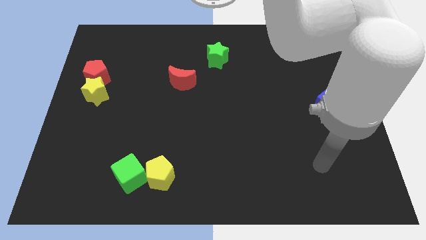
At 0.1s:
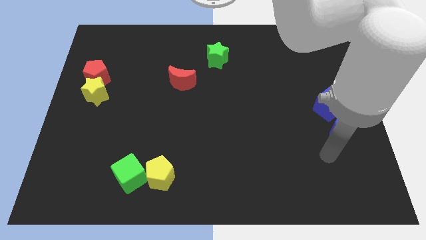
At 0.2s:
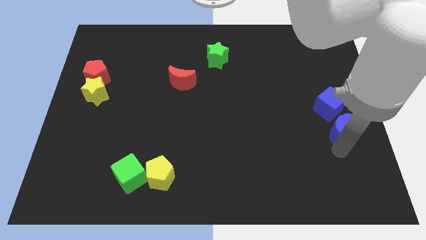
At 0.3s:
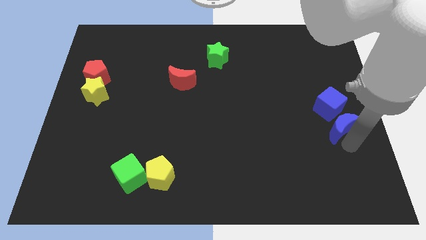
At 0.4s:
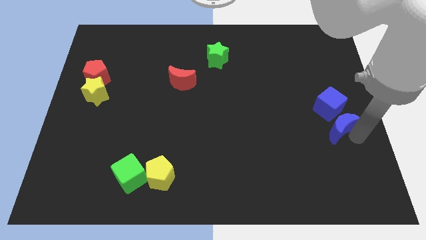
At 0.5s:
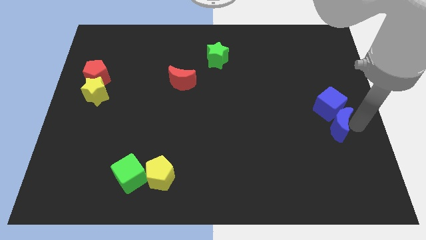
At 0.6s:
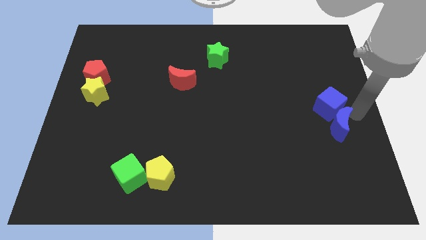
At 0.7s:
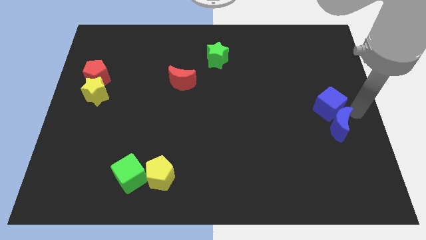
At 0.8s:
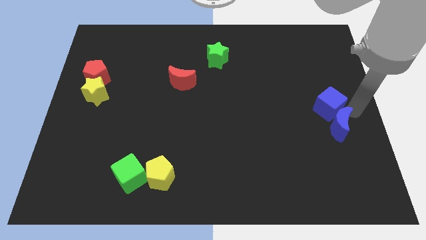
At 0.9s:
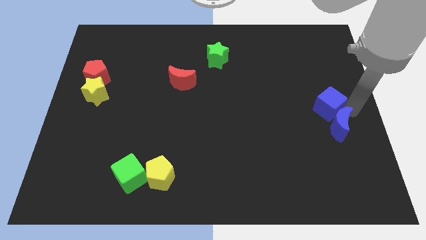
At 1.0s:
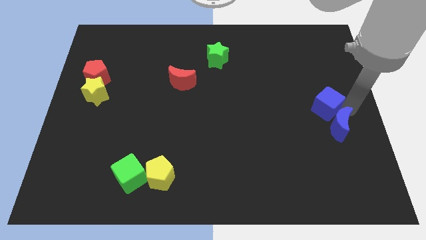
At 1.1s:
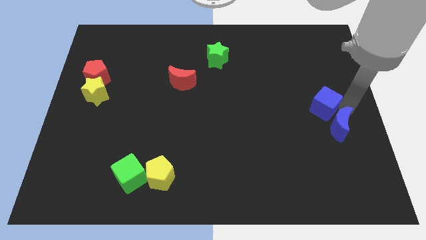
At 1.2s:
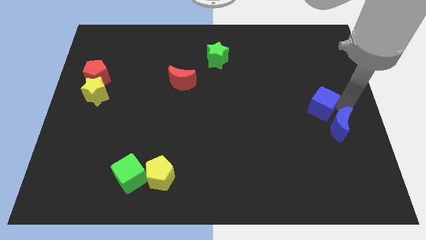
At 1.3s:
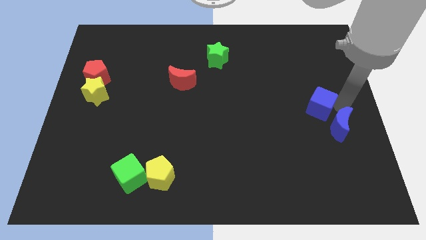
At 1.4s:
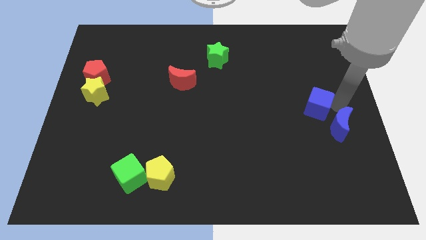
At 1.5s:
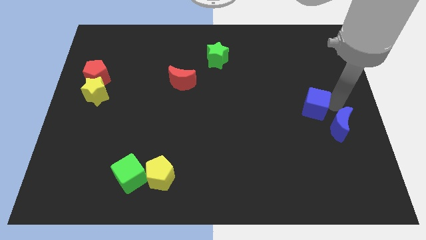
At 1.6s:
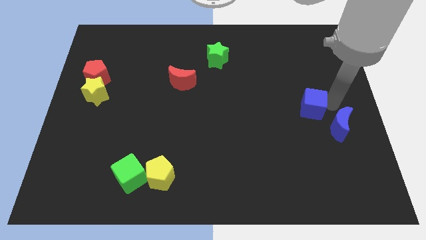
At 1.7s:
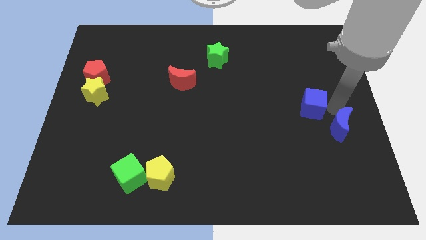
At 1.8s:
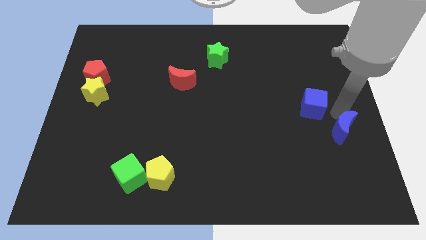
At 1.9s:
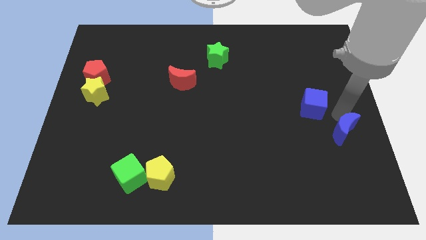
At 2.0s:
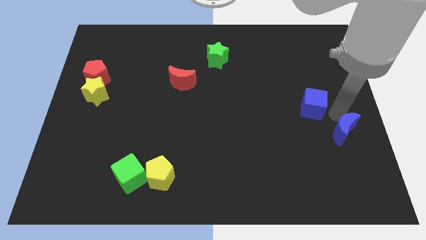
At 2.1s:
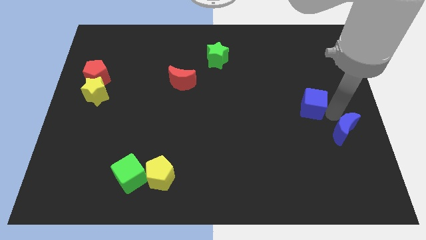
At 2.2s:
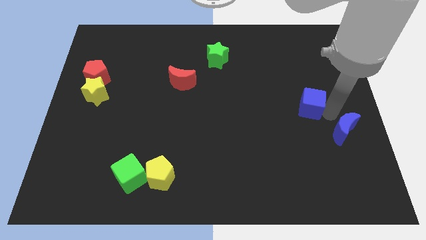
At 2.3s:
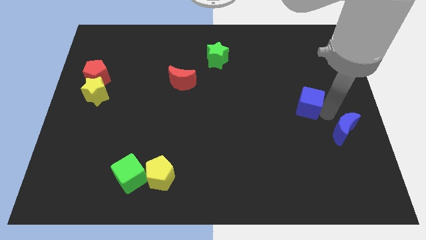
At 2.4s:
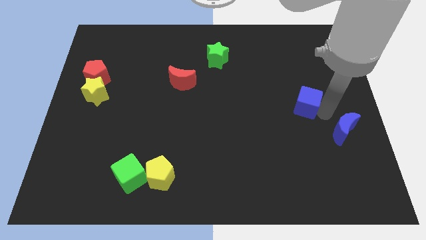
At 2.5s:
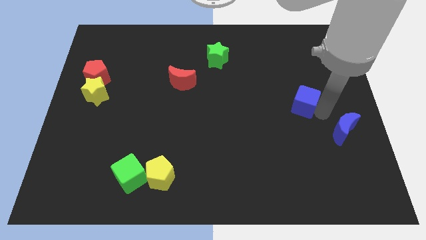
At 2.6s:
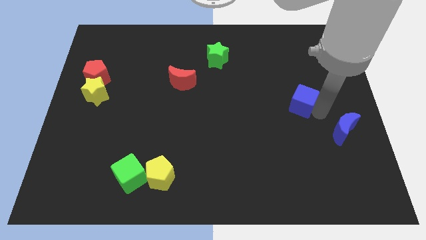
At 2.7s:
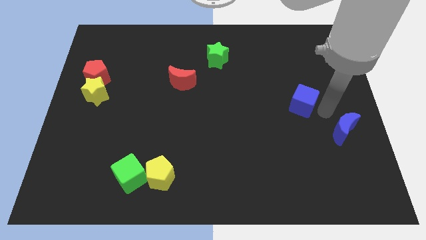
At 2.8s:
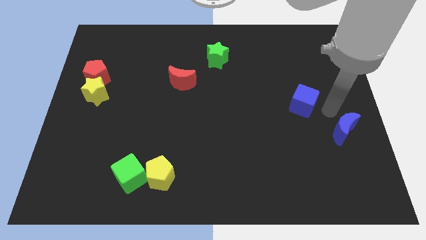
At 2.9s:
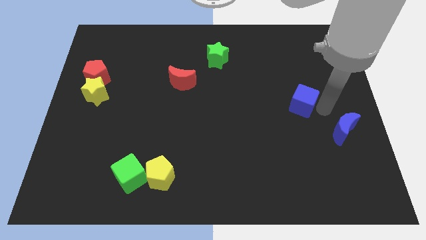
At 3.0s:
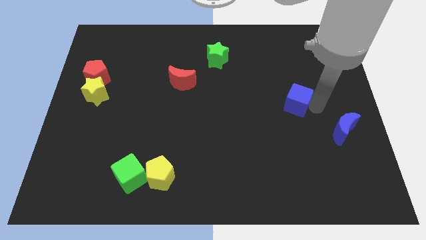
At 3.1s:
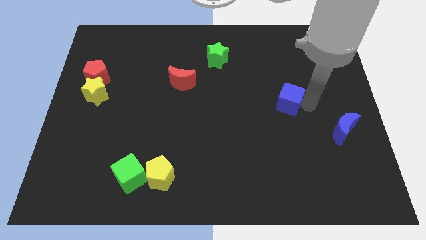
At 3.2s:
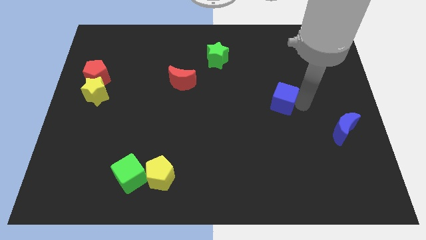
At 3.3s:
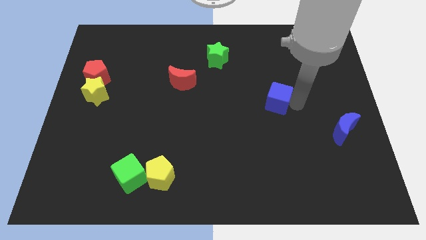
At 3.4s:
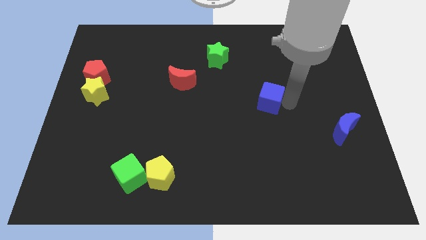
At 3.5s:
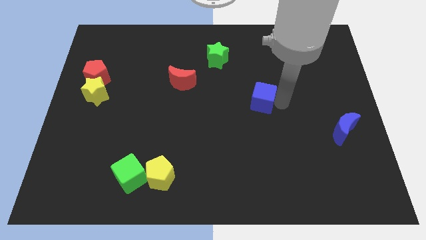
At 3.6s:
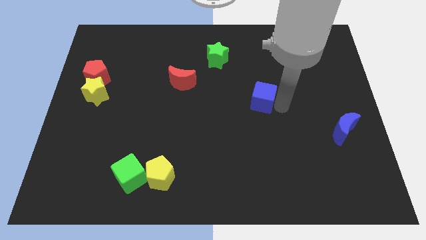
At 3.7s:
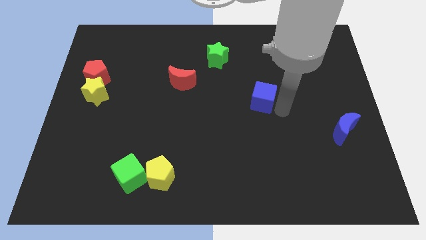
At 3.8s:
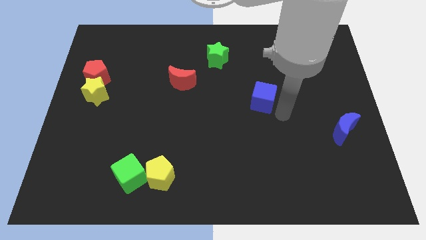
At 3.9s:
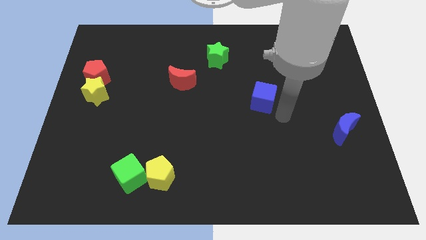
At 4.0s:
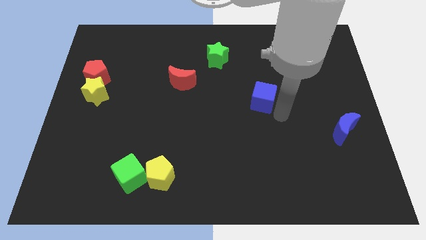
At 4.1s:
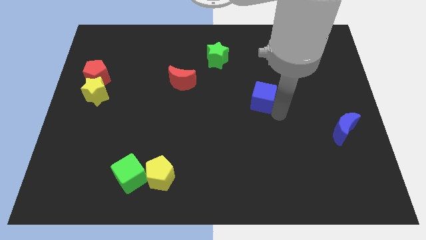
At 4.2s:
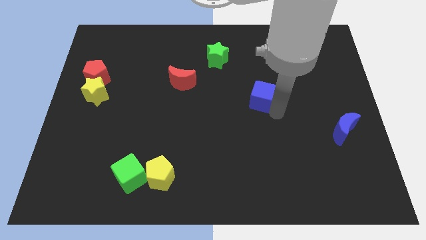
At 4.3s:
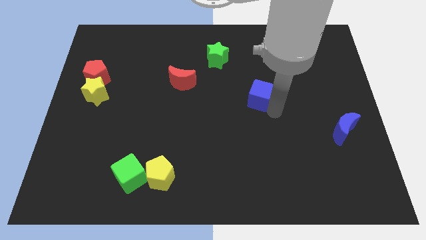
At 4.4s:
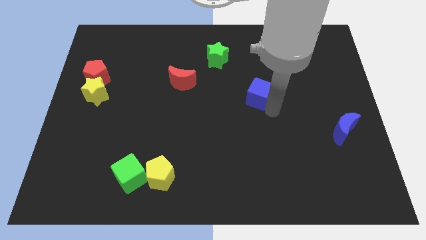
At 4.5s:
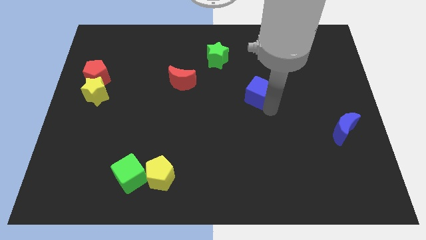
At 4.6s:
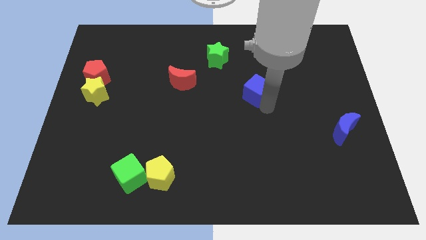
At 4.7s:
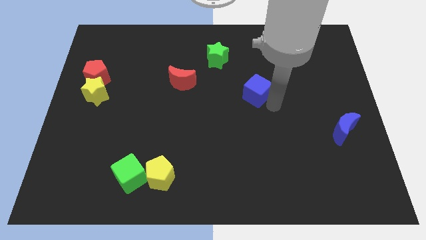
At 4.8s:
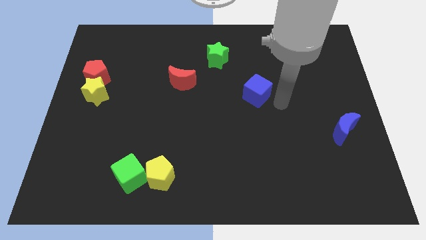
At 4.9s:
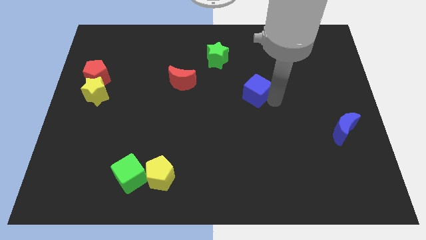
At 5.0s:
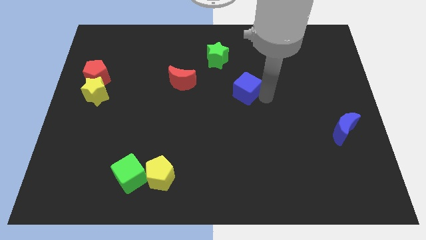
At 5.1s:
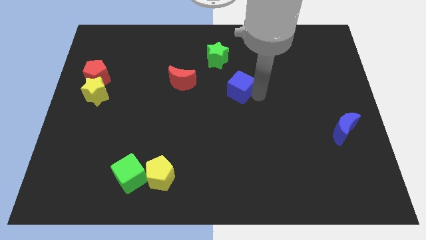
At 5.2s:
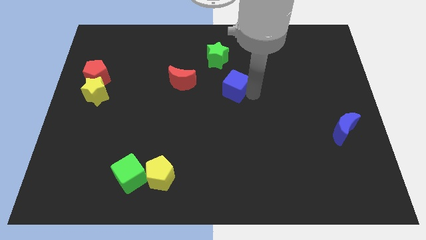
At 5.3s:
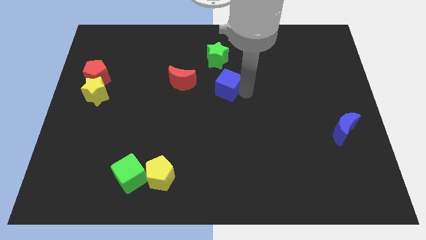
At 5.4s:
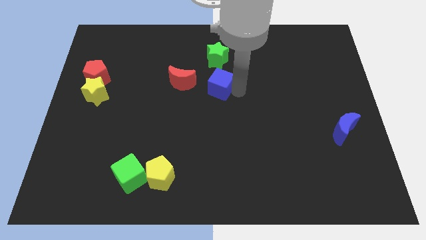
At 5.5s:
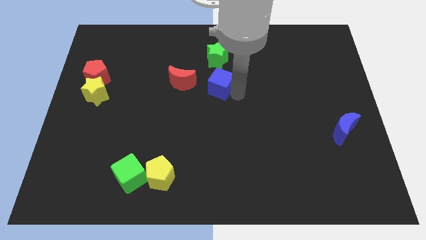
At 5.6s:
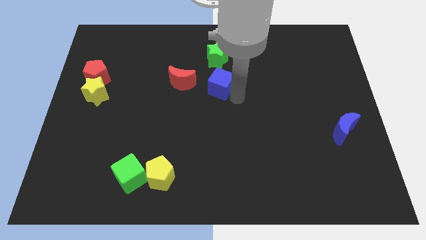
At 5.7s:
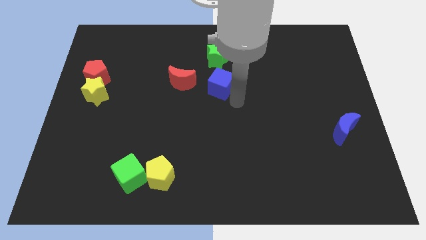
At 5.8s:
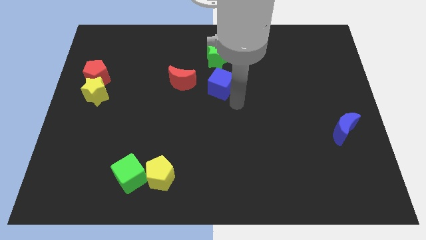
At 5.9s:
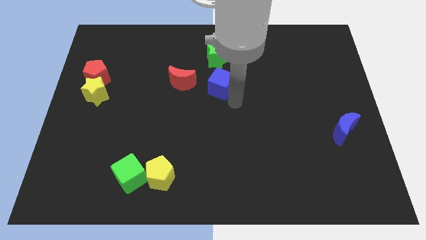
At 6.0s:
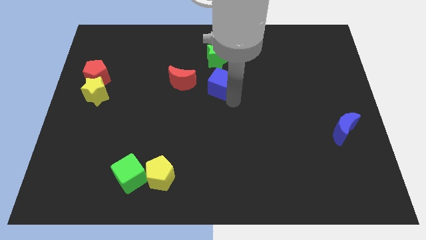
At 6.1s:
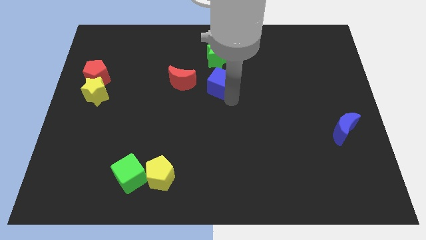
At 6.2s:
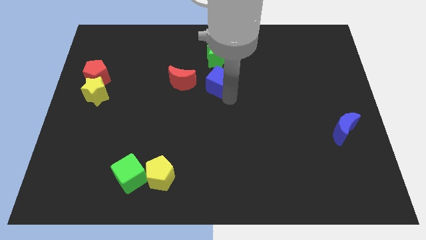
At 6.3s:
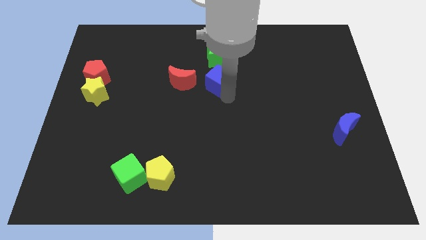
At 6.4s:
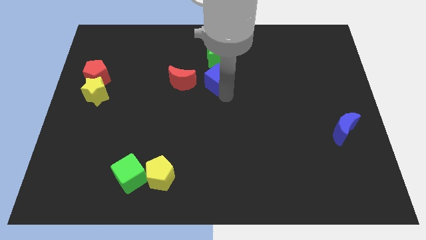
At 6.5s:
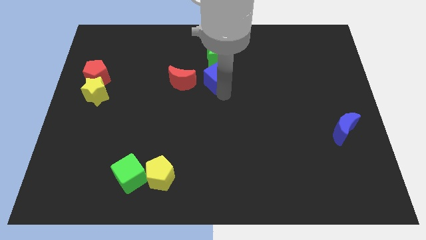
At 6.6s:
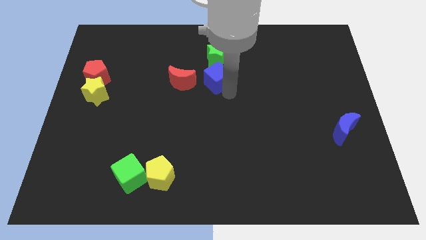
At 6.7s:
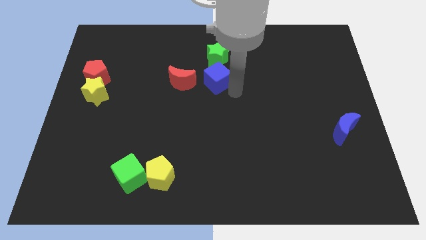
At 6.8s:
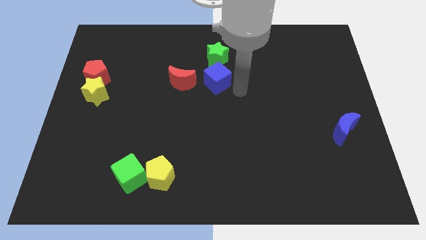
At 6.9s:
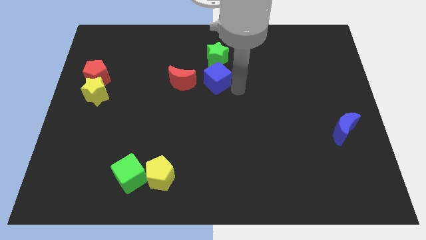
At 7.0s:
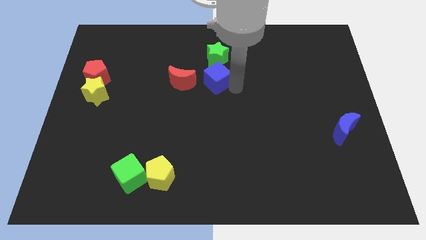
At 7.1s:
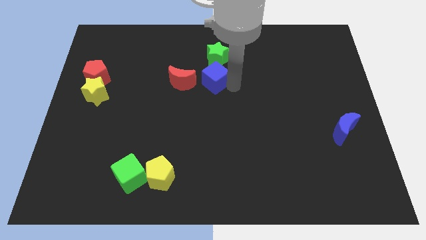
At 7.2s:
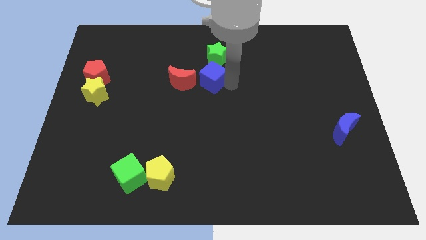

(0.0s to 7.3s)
slide the blue cube diagonally down and to the left of the green star

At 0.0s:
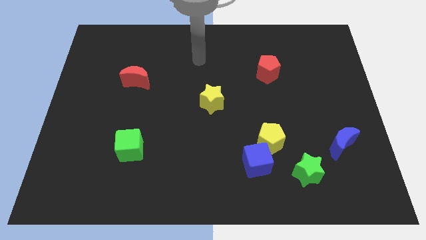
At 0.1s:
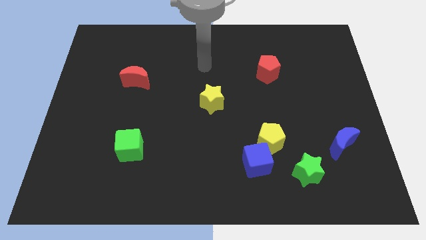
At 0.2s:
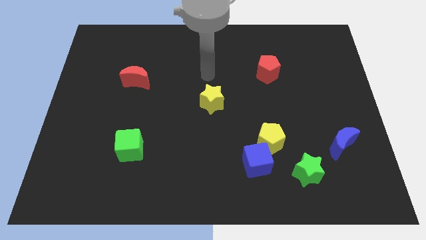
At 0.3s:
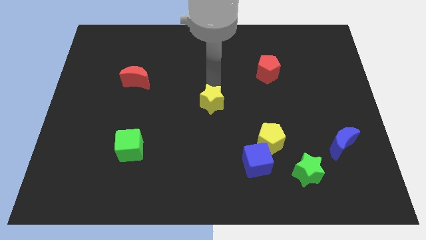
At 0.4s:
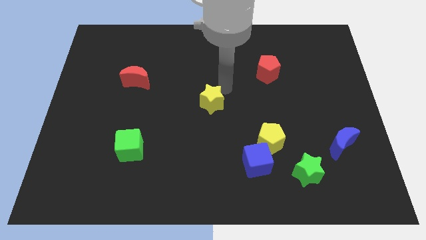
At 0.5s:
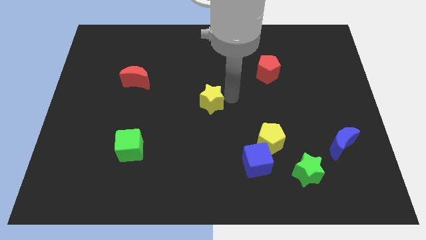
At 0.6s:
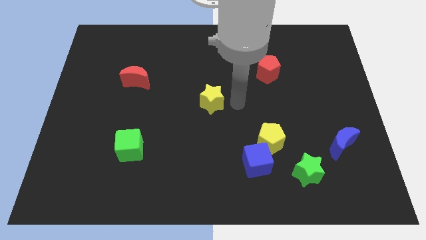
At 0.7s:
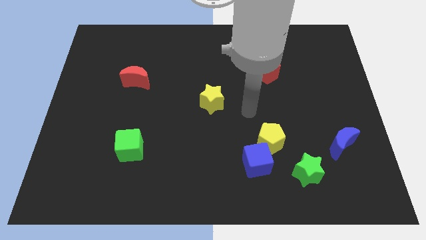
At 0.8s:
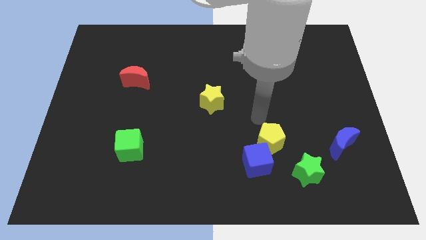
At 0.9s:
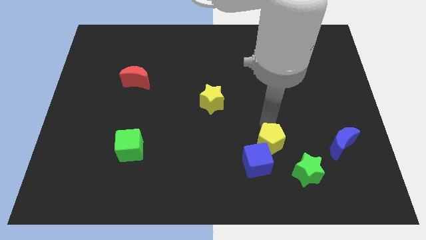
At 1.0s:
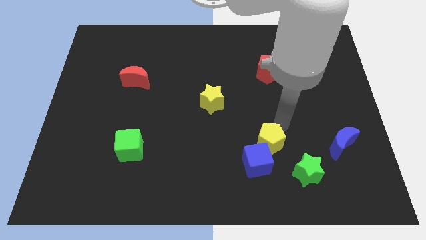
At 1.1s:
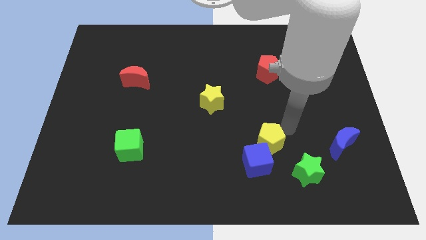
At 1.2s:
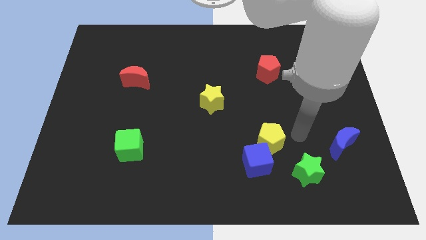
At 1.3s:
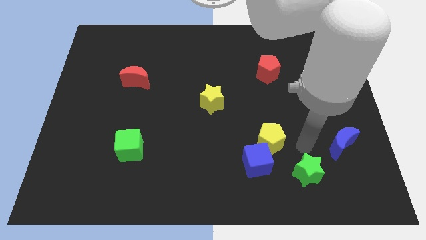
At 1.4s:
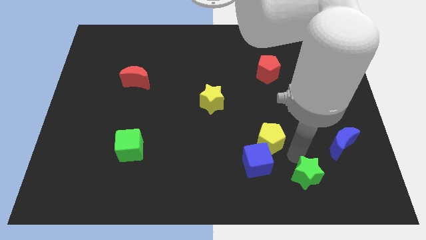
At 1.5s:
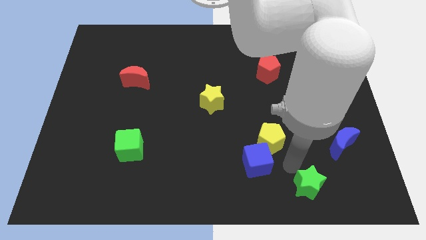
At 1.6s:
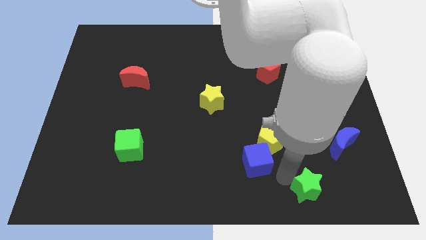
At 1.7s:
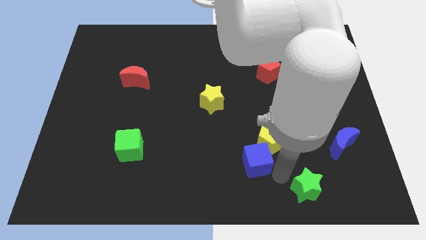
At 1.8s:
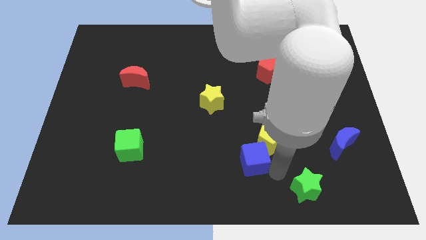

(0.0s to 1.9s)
slide the blue cube left of the yellow pentagon
